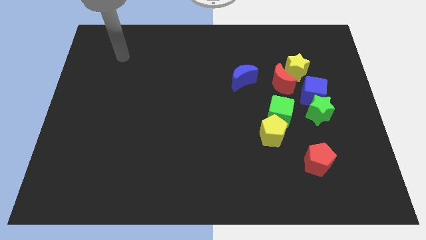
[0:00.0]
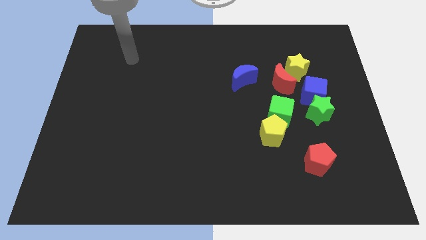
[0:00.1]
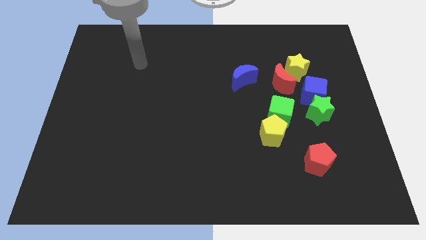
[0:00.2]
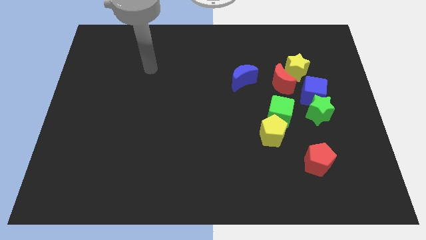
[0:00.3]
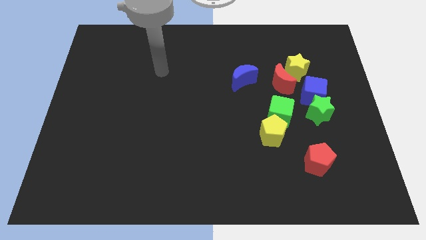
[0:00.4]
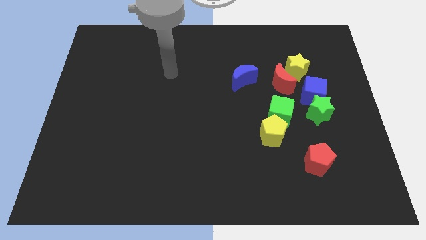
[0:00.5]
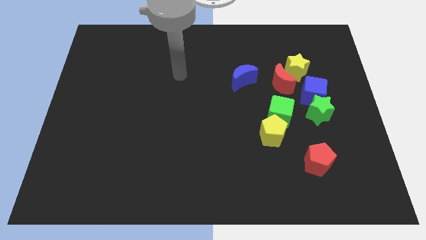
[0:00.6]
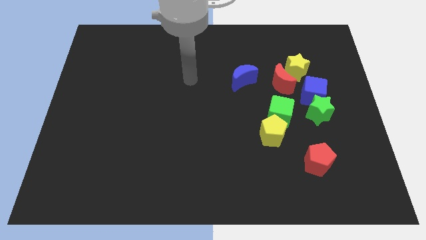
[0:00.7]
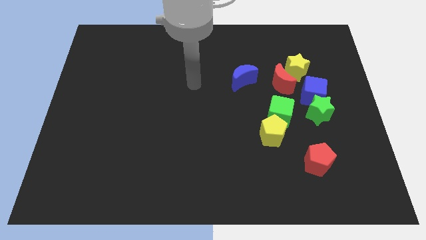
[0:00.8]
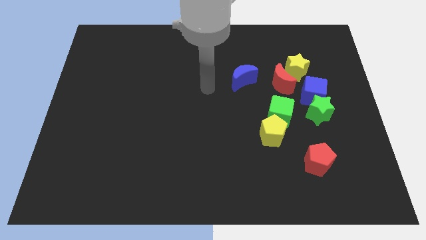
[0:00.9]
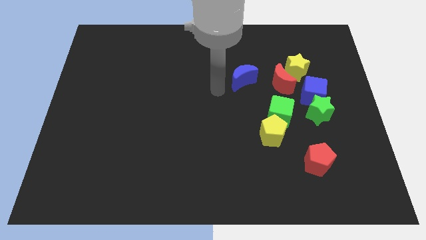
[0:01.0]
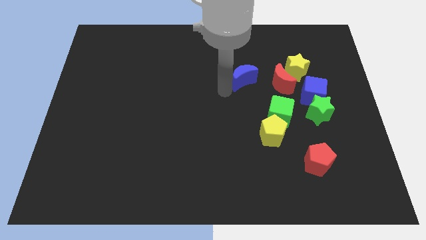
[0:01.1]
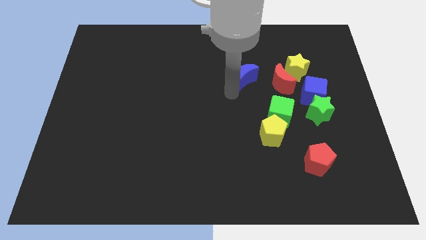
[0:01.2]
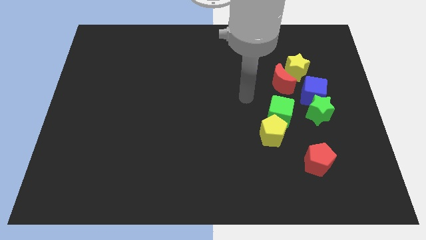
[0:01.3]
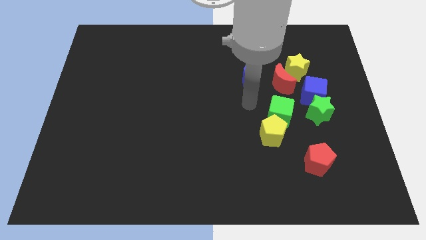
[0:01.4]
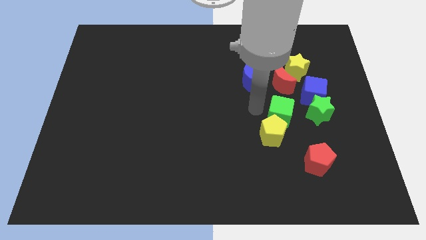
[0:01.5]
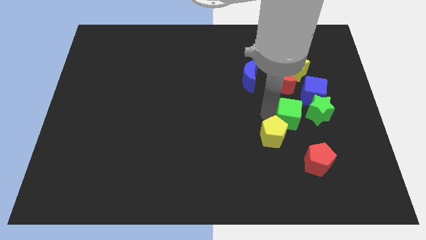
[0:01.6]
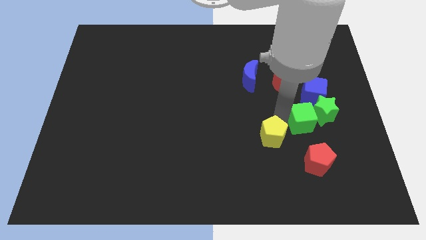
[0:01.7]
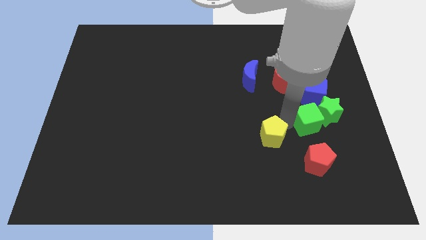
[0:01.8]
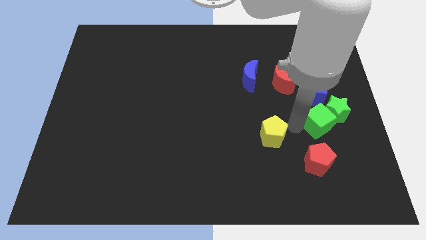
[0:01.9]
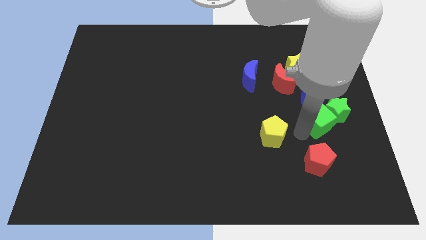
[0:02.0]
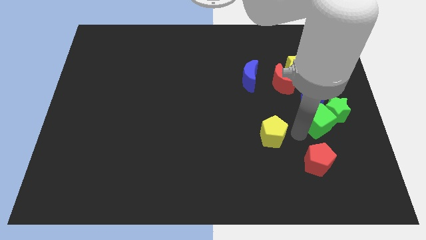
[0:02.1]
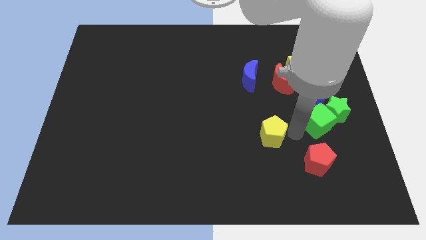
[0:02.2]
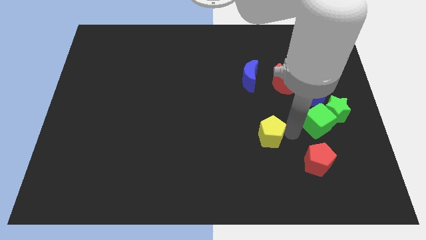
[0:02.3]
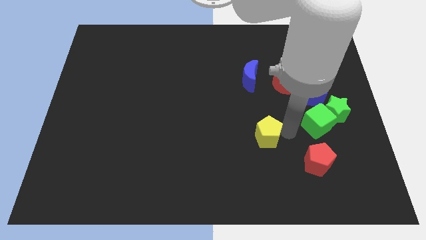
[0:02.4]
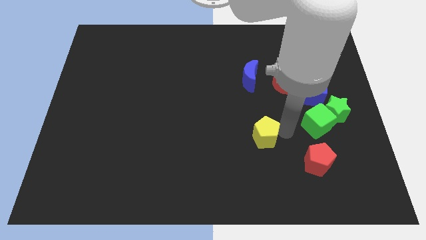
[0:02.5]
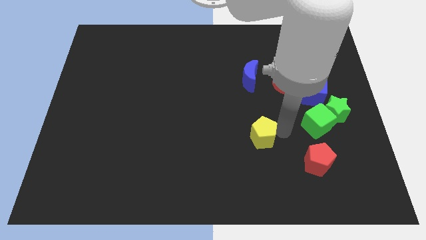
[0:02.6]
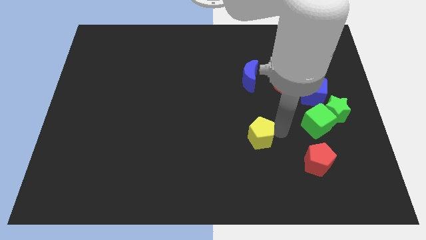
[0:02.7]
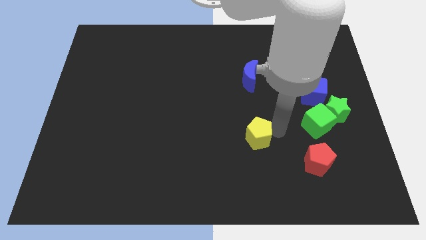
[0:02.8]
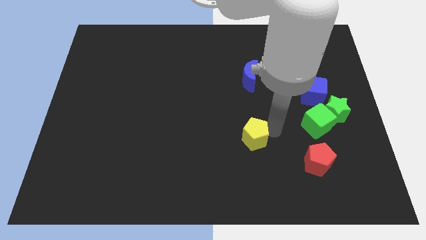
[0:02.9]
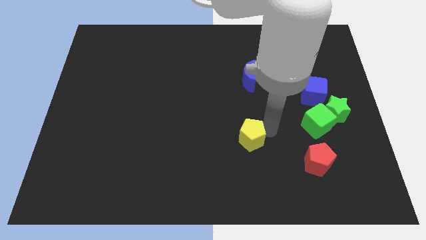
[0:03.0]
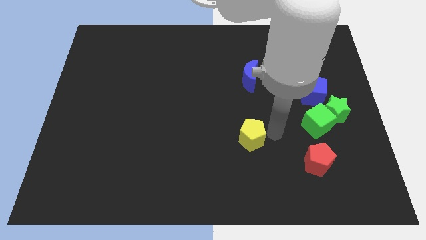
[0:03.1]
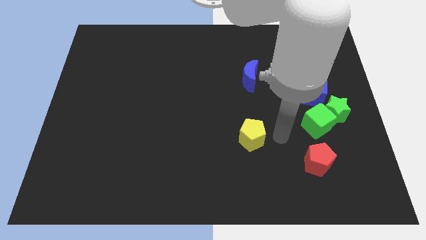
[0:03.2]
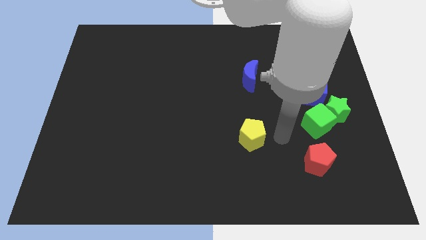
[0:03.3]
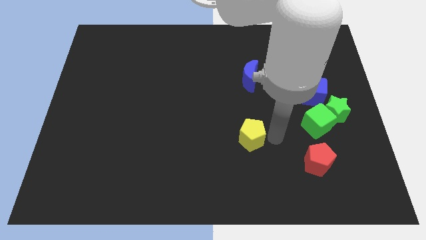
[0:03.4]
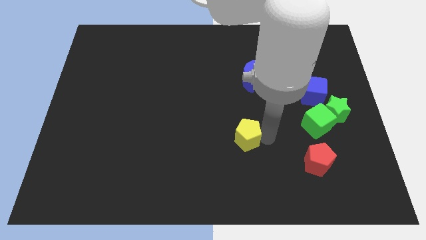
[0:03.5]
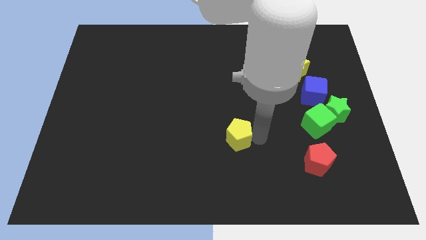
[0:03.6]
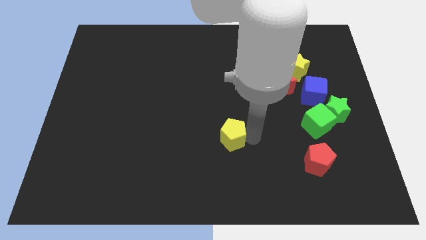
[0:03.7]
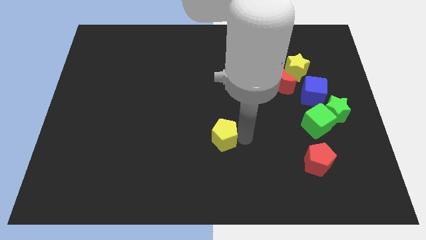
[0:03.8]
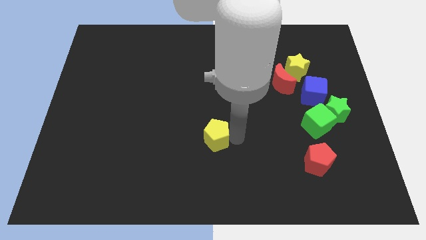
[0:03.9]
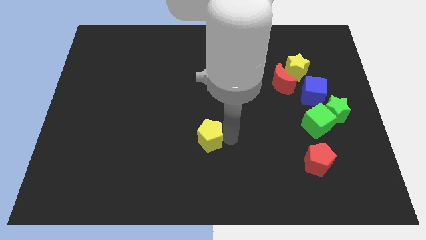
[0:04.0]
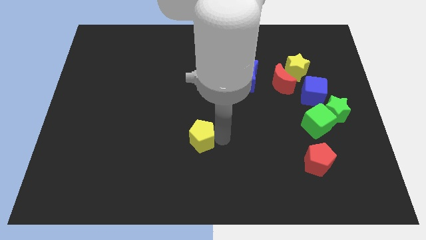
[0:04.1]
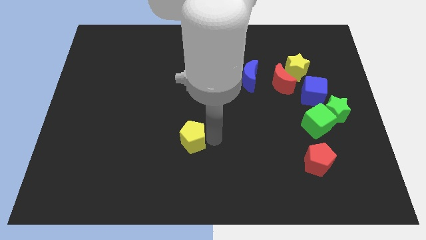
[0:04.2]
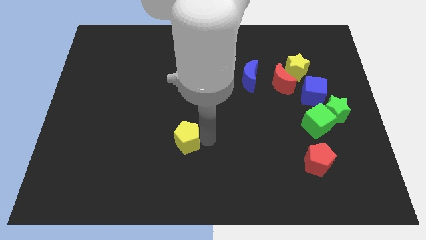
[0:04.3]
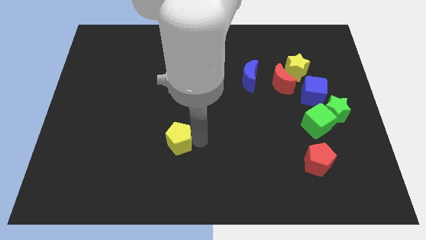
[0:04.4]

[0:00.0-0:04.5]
move the yellow pentagon left

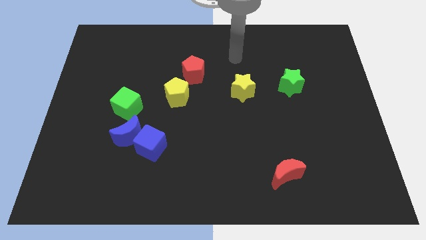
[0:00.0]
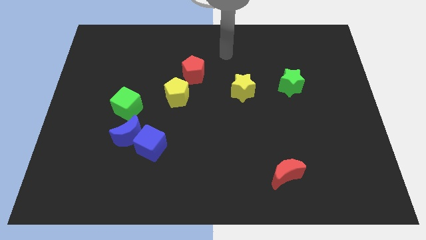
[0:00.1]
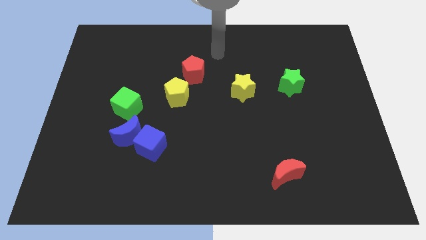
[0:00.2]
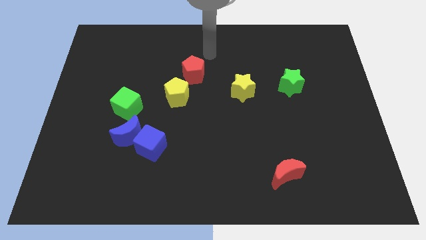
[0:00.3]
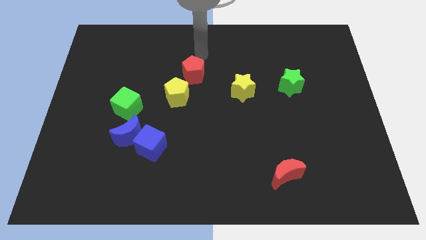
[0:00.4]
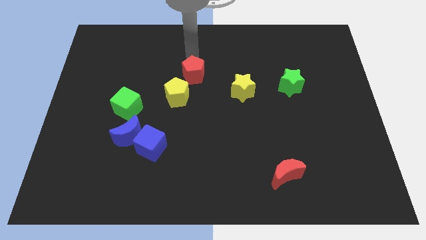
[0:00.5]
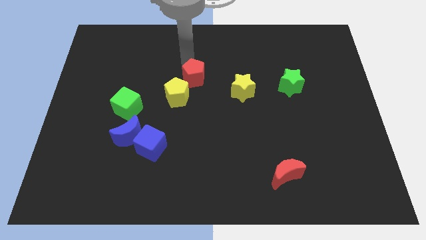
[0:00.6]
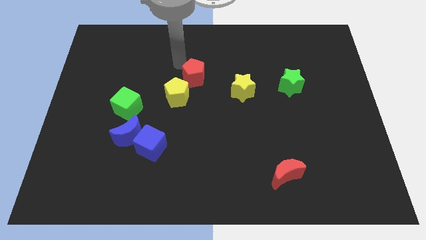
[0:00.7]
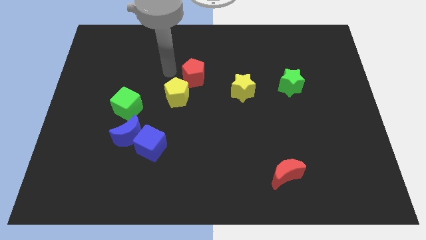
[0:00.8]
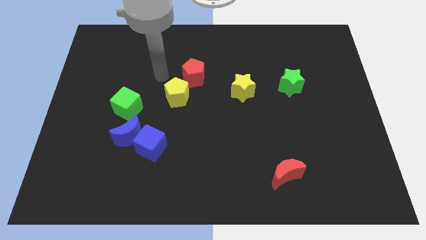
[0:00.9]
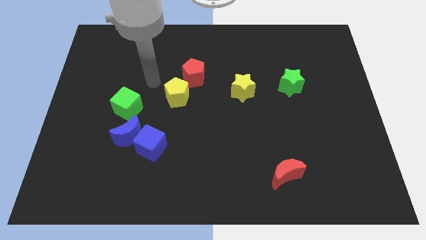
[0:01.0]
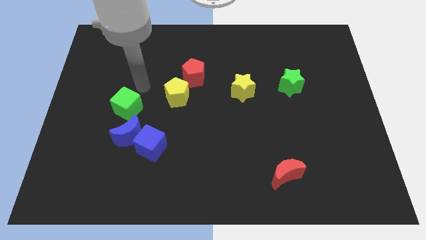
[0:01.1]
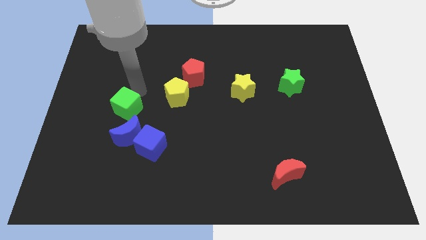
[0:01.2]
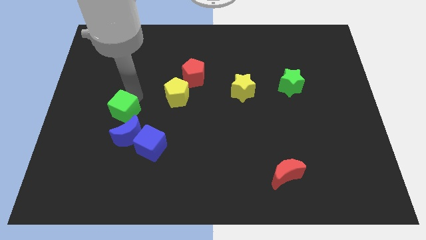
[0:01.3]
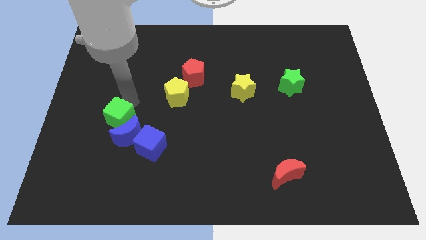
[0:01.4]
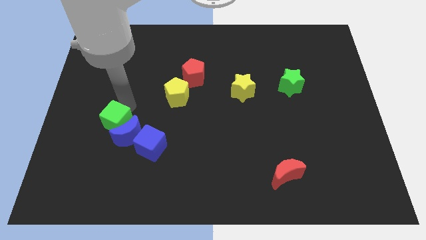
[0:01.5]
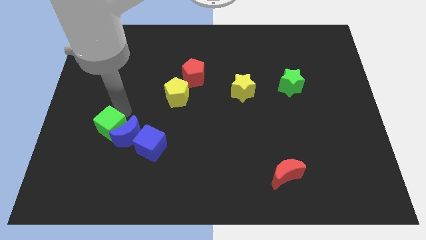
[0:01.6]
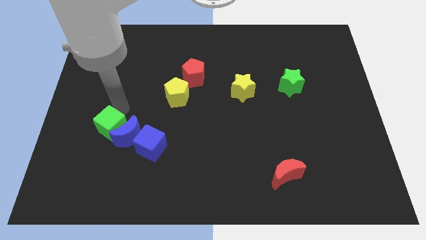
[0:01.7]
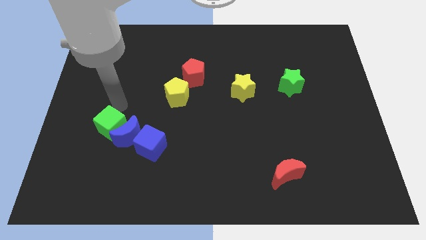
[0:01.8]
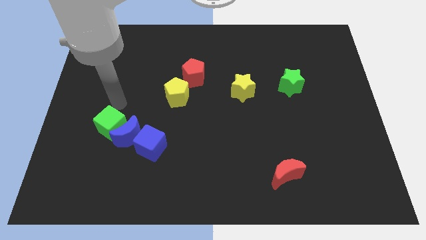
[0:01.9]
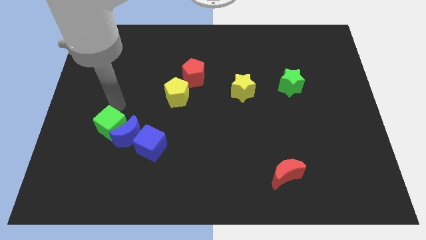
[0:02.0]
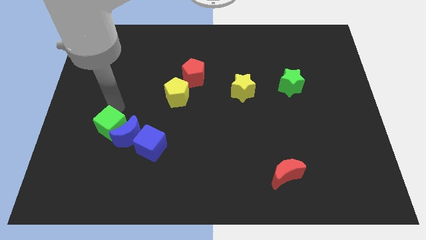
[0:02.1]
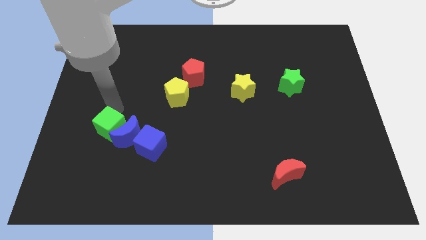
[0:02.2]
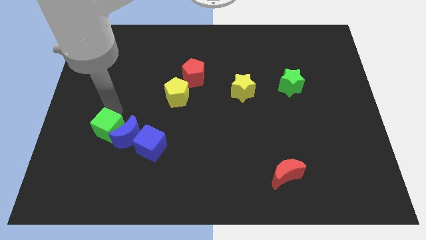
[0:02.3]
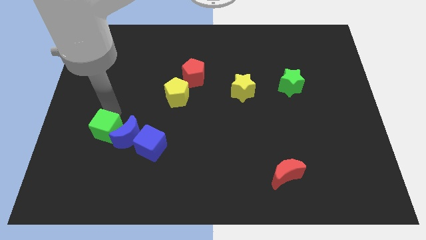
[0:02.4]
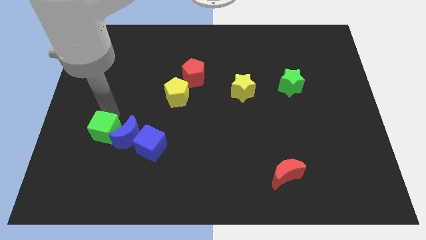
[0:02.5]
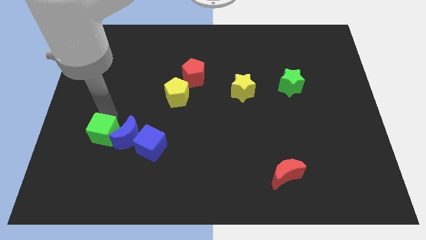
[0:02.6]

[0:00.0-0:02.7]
push the green cube a little bit down

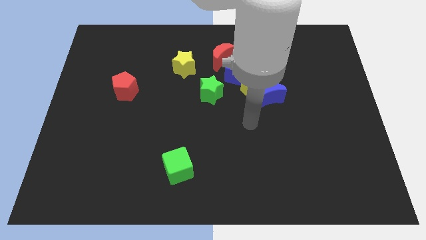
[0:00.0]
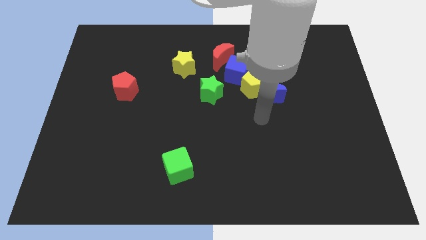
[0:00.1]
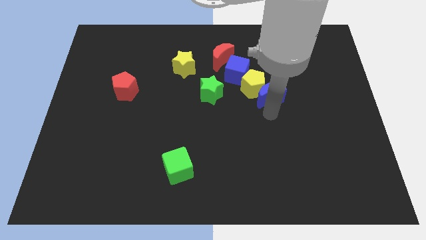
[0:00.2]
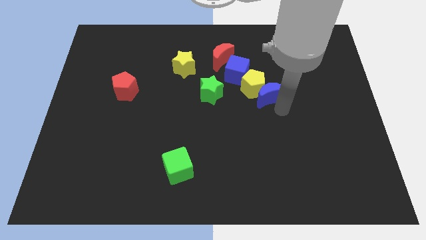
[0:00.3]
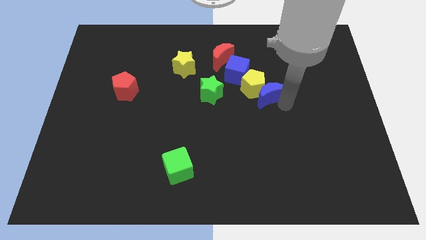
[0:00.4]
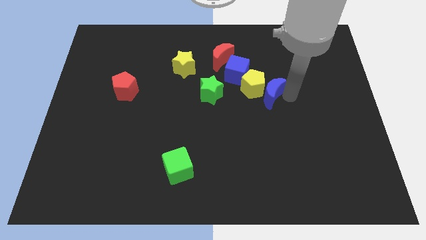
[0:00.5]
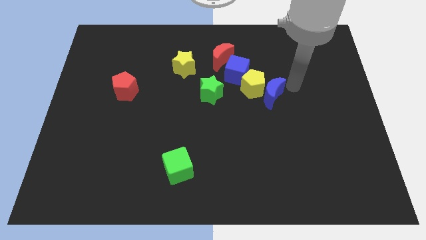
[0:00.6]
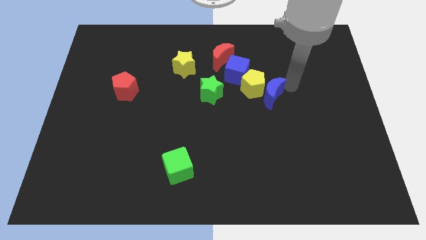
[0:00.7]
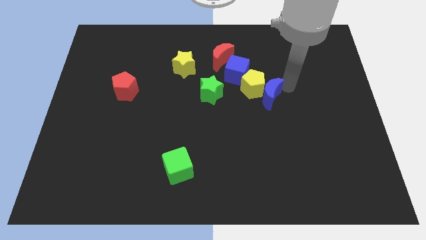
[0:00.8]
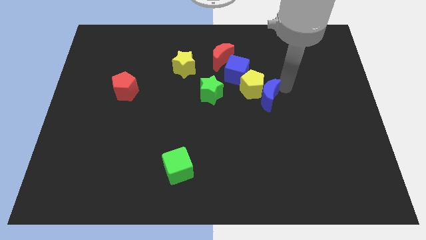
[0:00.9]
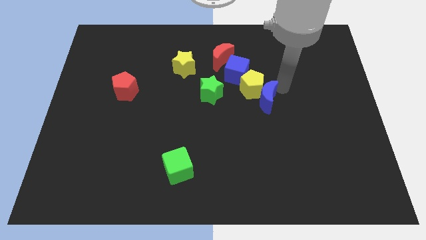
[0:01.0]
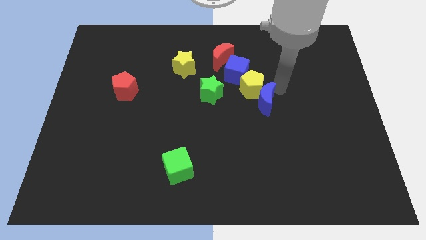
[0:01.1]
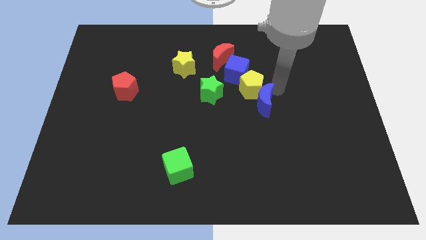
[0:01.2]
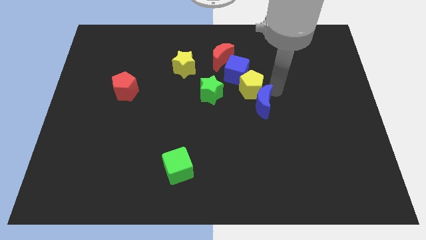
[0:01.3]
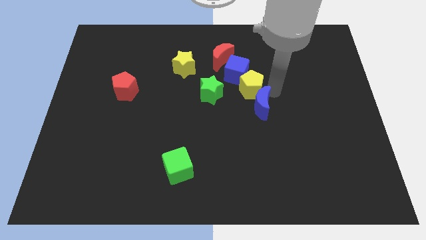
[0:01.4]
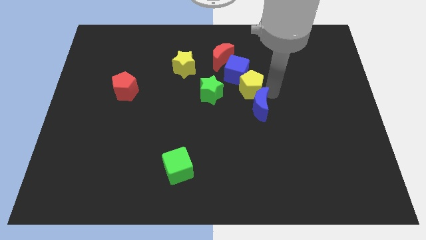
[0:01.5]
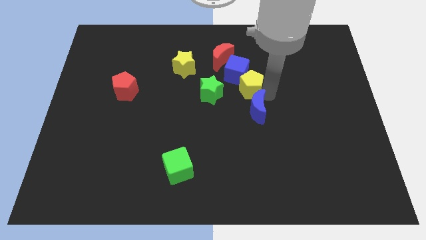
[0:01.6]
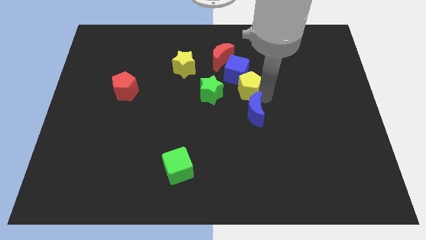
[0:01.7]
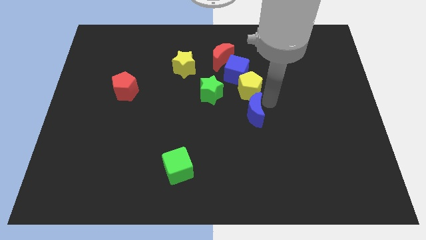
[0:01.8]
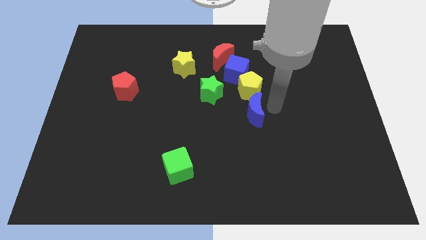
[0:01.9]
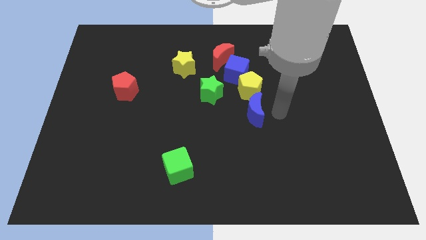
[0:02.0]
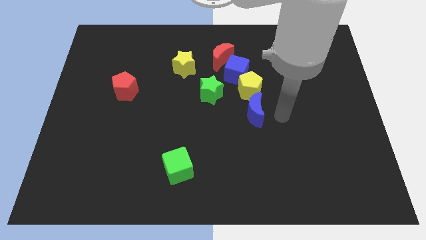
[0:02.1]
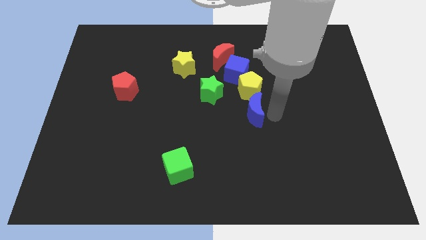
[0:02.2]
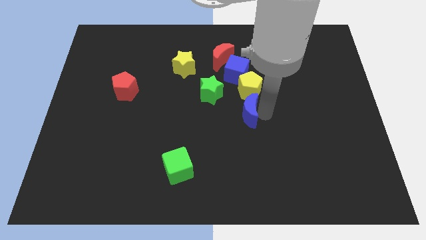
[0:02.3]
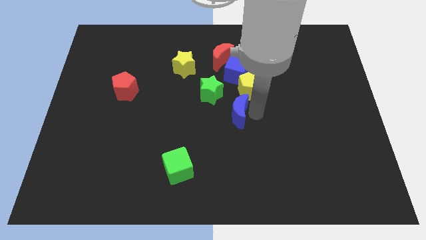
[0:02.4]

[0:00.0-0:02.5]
slightly move the blue moon to the left
